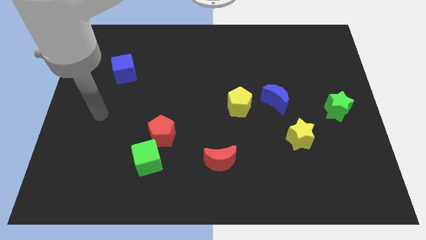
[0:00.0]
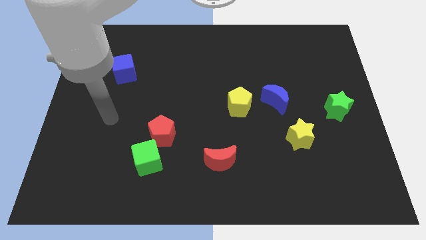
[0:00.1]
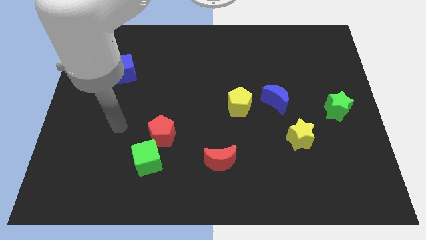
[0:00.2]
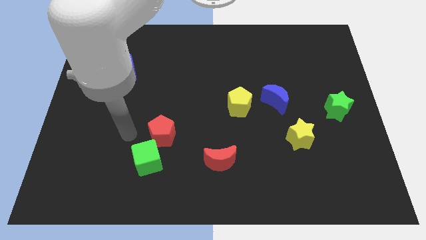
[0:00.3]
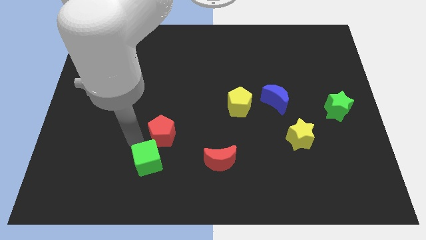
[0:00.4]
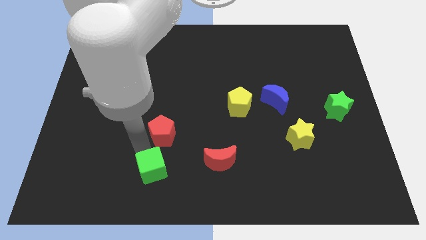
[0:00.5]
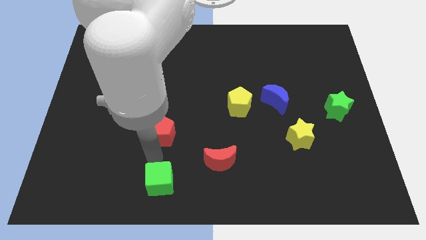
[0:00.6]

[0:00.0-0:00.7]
pull the red pentagon apart from the green cube

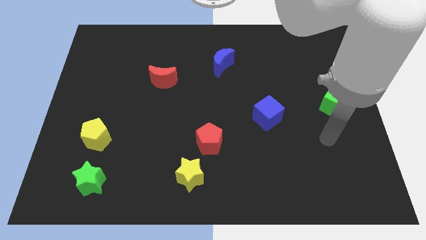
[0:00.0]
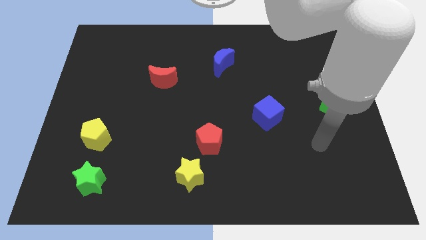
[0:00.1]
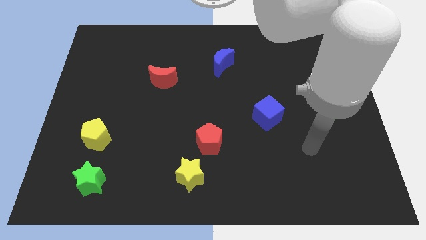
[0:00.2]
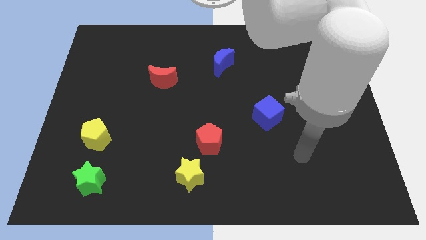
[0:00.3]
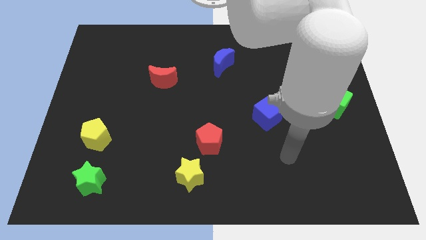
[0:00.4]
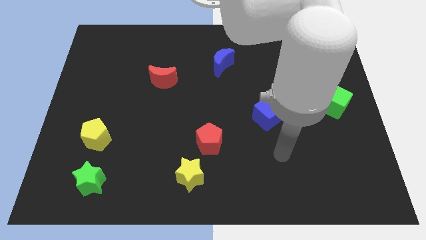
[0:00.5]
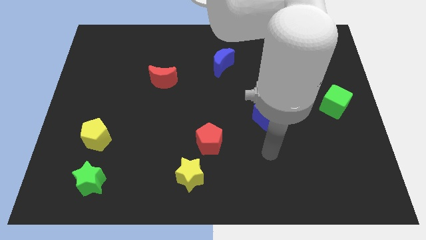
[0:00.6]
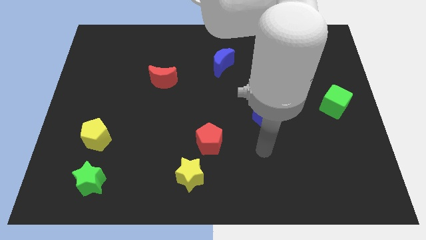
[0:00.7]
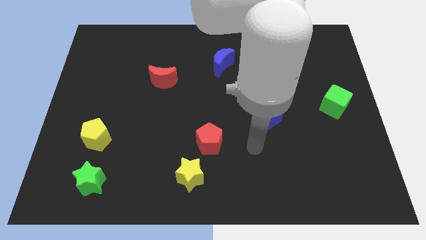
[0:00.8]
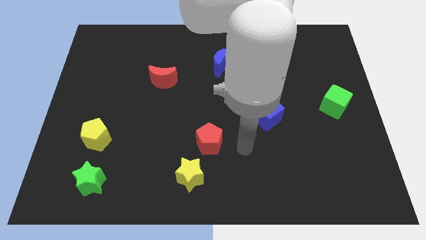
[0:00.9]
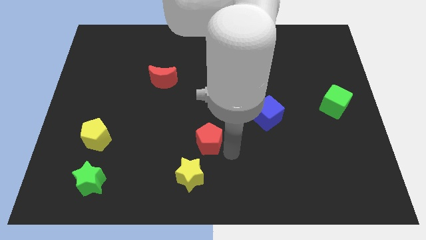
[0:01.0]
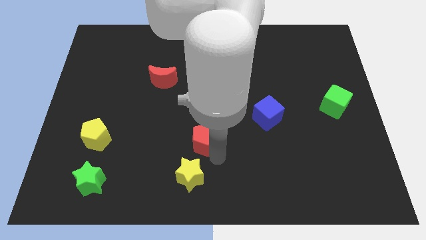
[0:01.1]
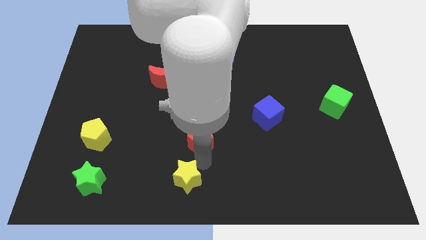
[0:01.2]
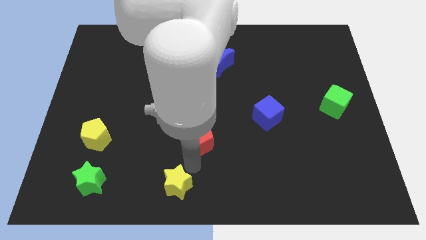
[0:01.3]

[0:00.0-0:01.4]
separate the red pentagon from the yellow star

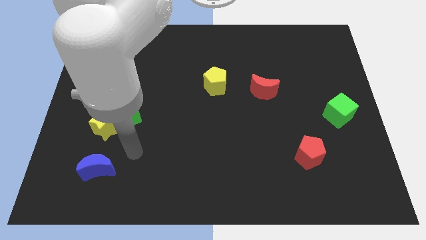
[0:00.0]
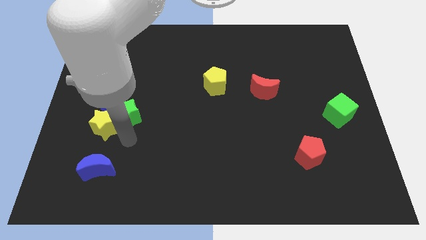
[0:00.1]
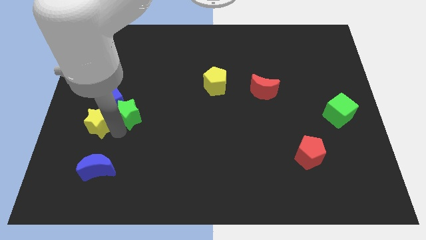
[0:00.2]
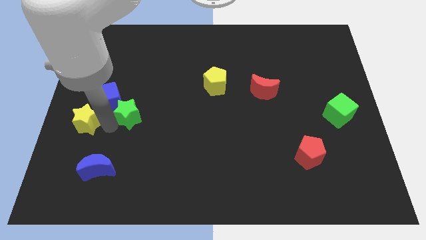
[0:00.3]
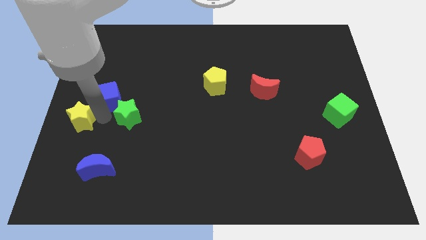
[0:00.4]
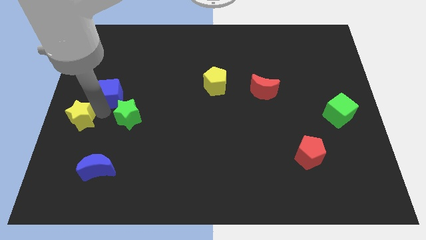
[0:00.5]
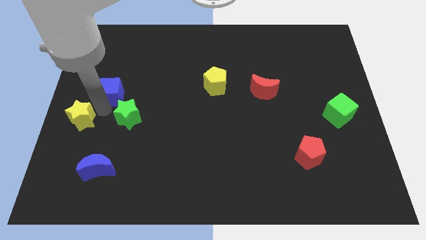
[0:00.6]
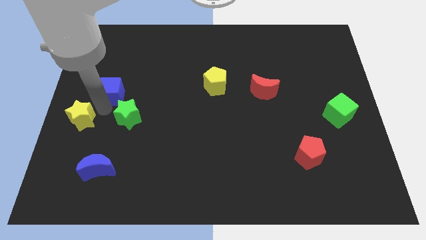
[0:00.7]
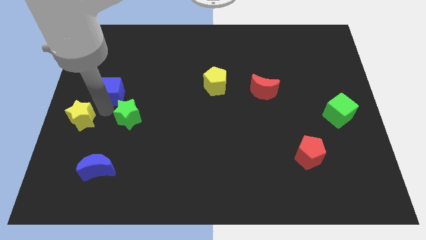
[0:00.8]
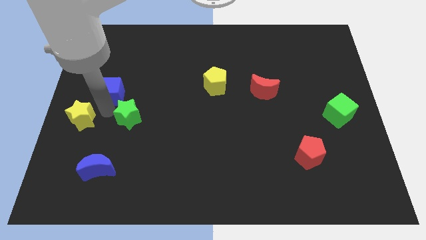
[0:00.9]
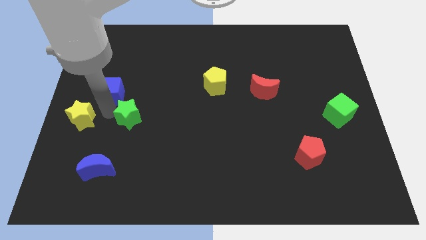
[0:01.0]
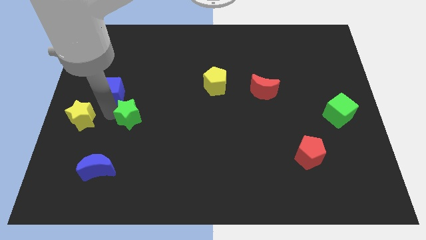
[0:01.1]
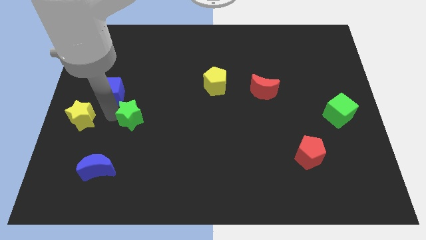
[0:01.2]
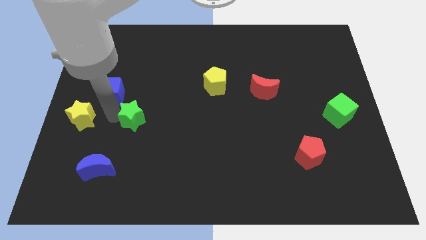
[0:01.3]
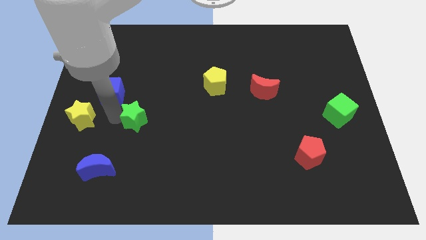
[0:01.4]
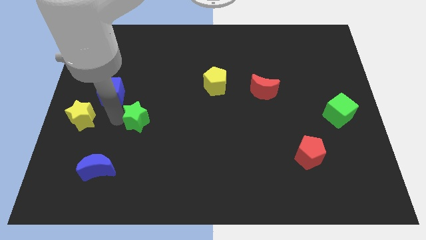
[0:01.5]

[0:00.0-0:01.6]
move the green star away from the yellow star and blue cube

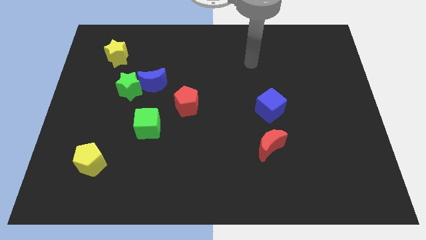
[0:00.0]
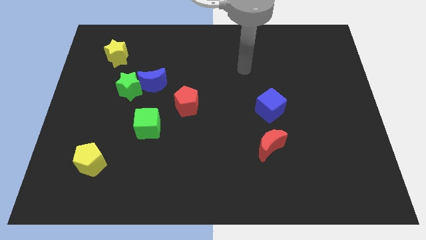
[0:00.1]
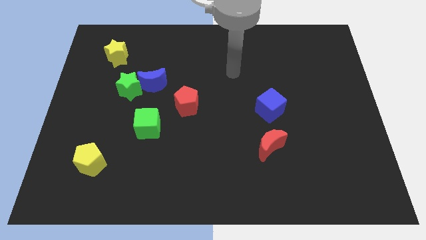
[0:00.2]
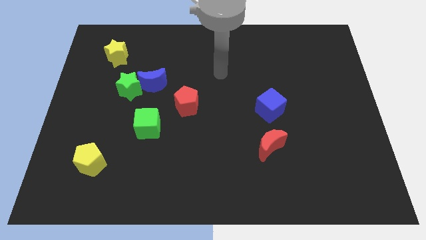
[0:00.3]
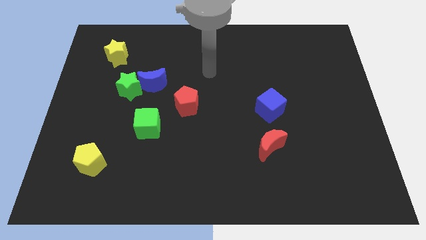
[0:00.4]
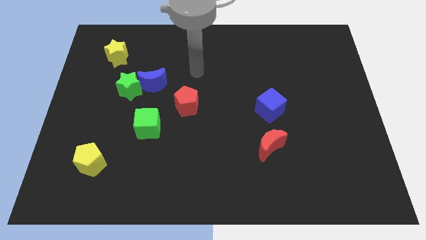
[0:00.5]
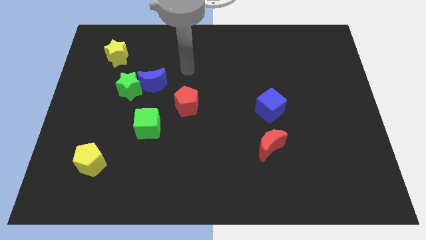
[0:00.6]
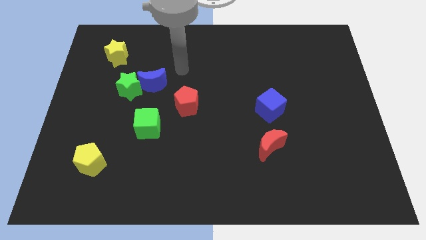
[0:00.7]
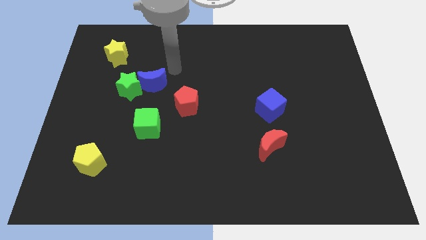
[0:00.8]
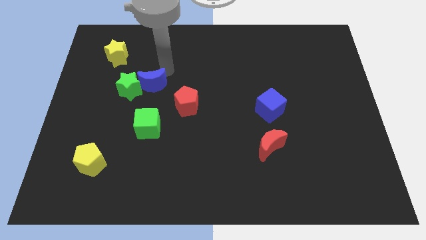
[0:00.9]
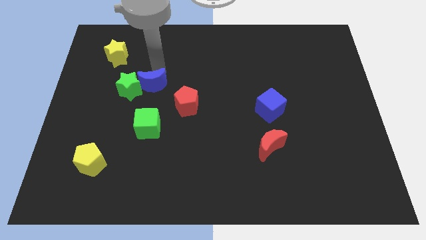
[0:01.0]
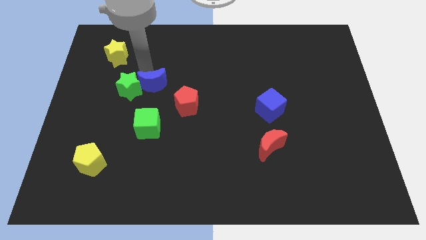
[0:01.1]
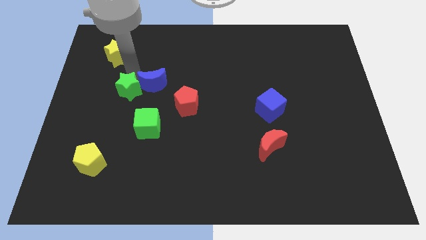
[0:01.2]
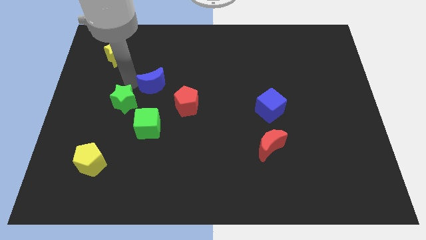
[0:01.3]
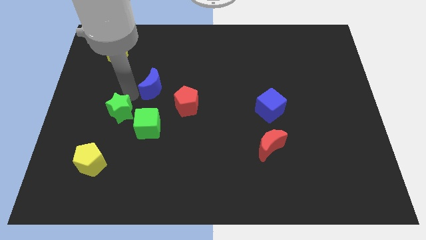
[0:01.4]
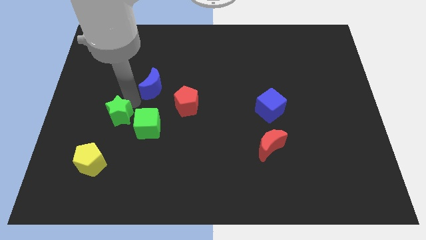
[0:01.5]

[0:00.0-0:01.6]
move the blue moon away from the green star

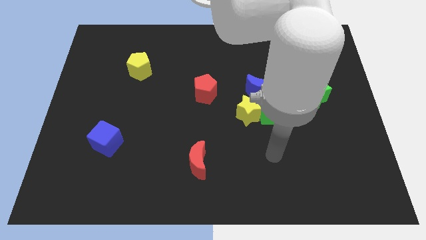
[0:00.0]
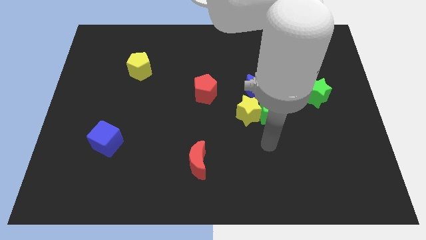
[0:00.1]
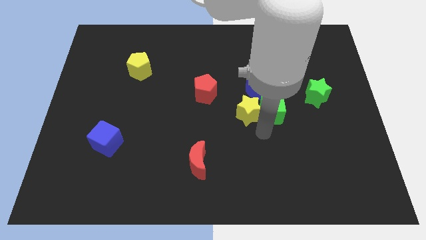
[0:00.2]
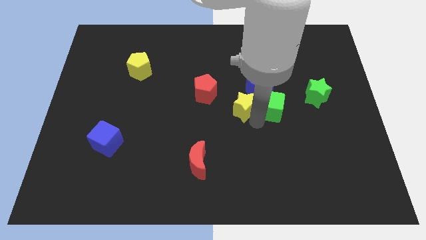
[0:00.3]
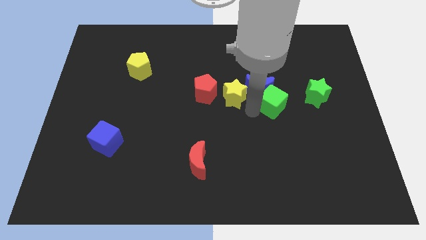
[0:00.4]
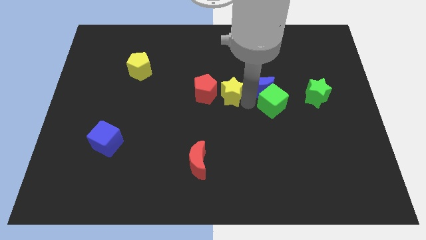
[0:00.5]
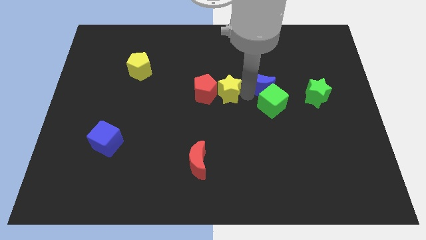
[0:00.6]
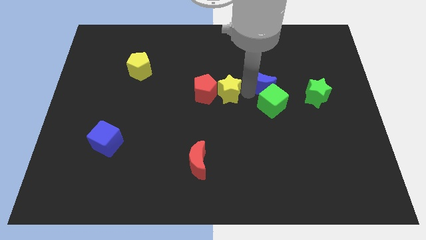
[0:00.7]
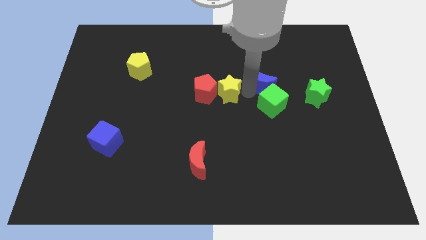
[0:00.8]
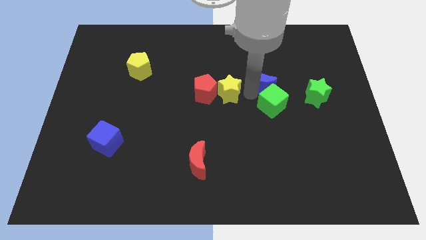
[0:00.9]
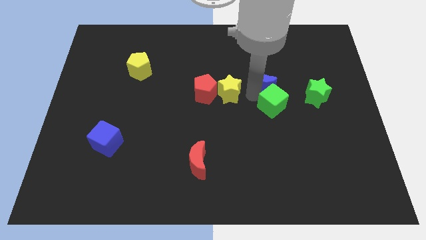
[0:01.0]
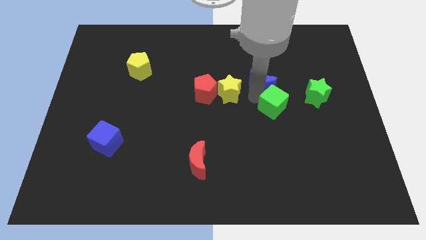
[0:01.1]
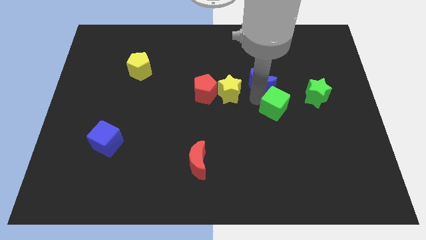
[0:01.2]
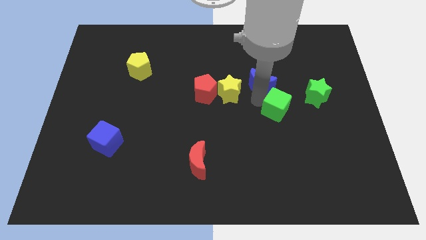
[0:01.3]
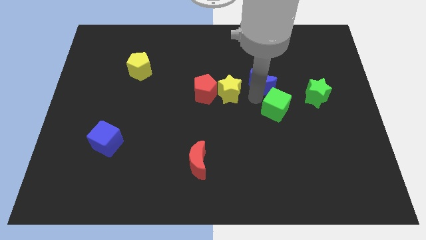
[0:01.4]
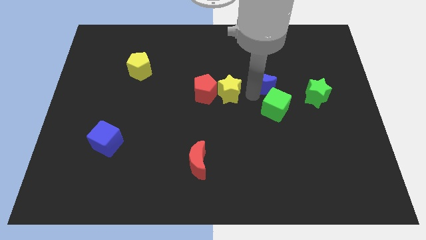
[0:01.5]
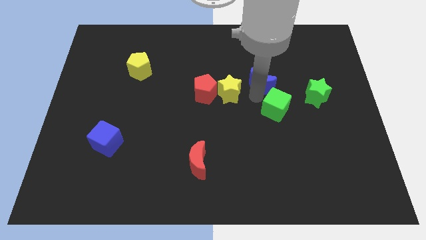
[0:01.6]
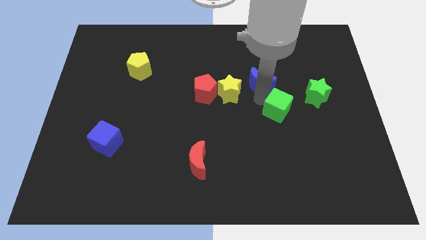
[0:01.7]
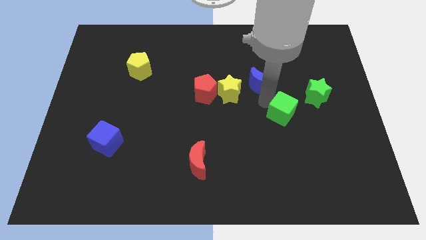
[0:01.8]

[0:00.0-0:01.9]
separate the green cube from the yellow star and blue moon

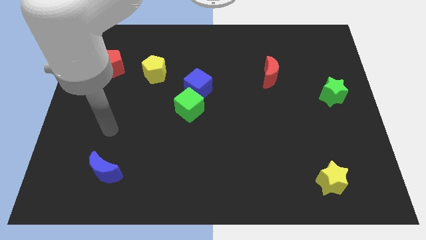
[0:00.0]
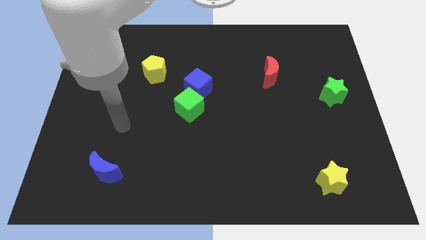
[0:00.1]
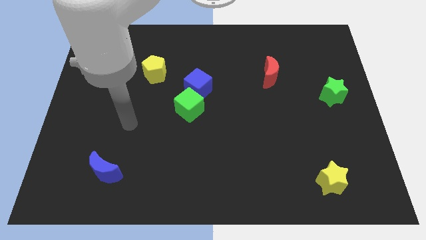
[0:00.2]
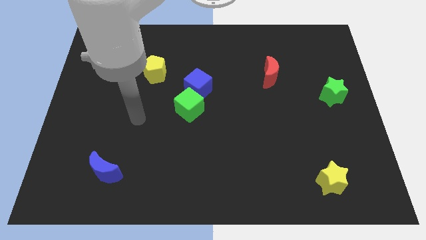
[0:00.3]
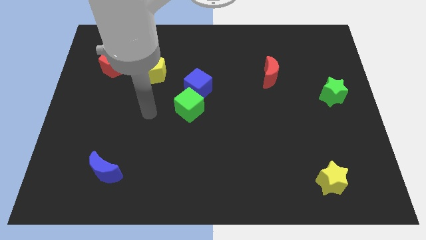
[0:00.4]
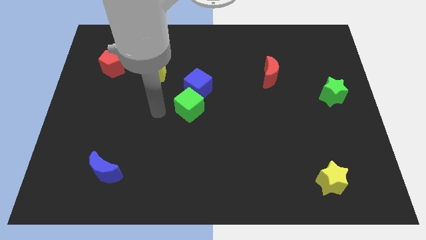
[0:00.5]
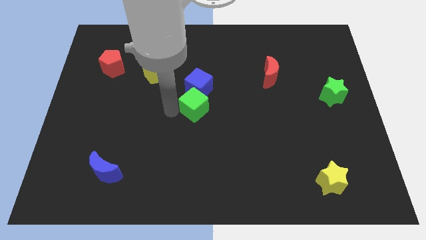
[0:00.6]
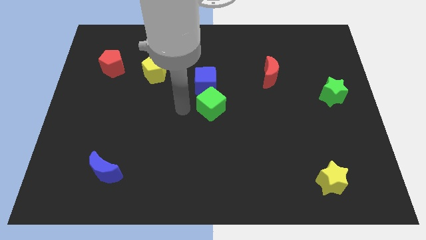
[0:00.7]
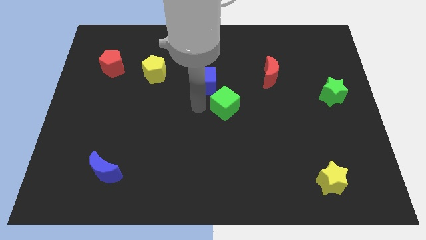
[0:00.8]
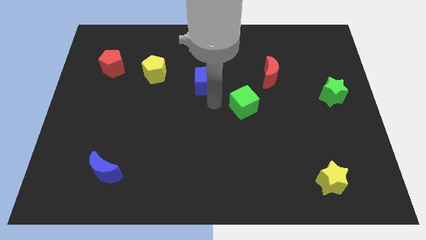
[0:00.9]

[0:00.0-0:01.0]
pull the blue cube apart from the green cube

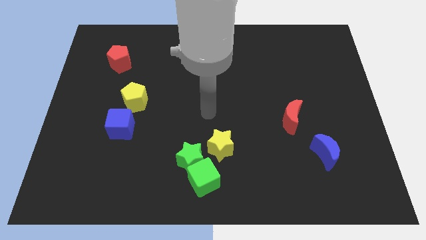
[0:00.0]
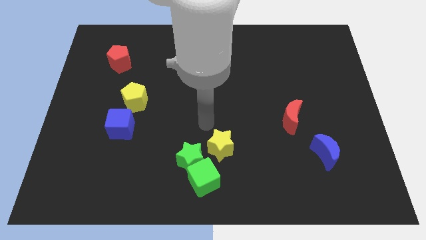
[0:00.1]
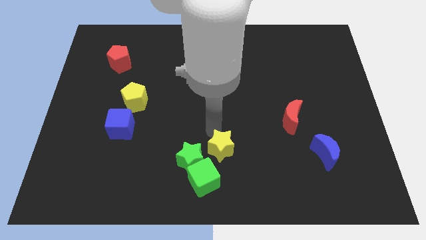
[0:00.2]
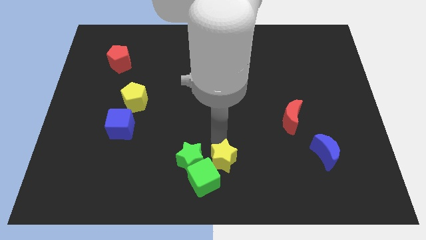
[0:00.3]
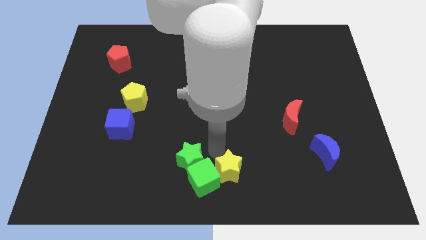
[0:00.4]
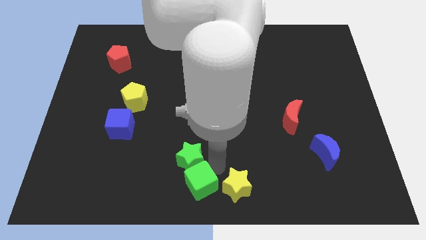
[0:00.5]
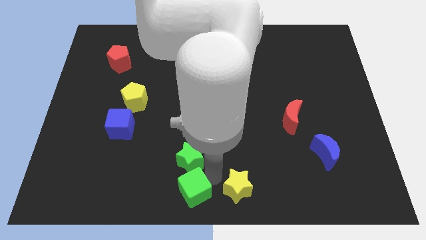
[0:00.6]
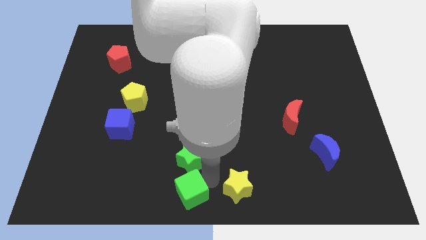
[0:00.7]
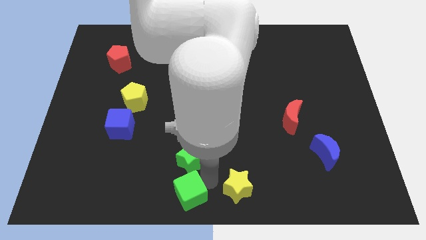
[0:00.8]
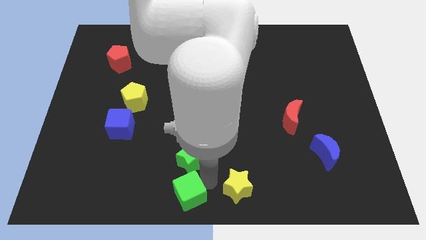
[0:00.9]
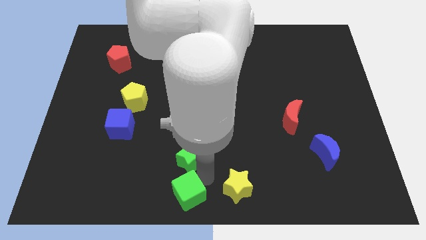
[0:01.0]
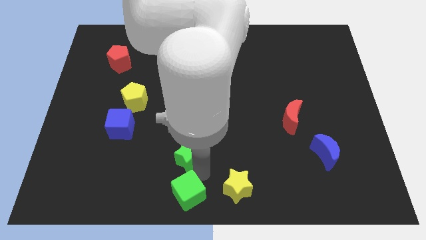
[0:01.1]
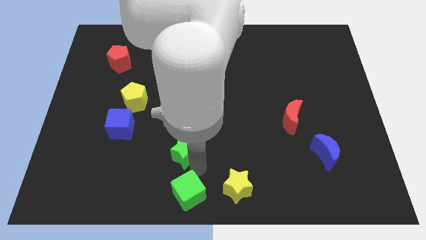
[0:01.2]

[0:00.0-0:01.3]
pull the green star apart from the green cube and yellow star
